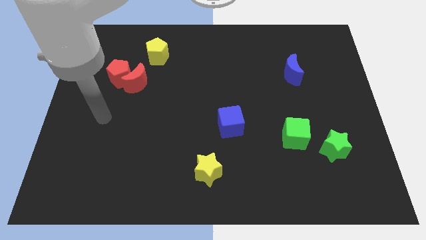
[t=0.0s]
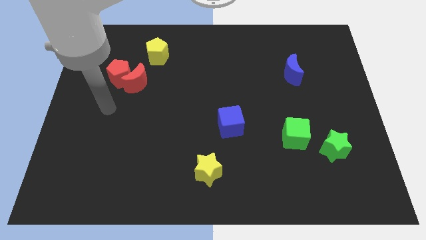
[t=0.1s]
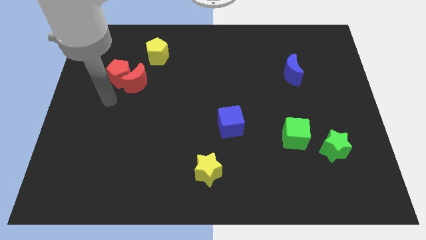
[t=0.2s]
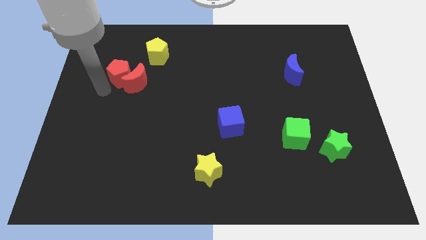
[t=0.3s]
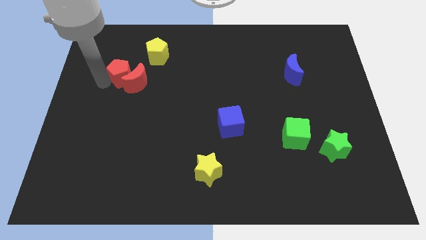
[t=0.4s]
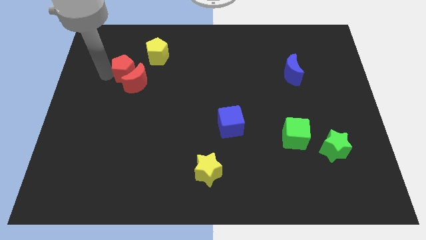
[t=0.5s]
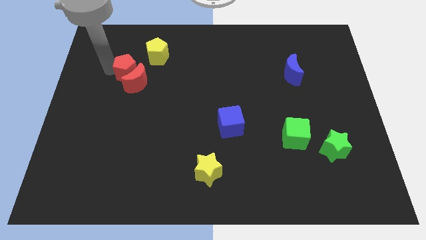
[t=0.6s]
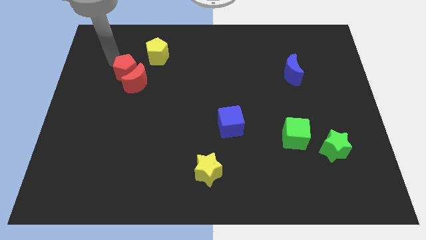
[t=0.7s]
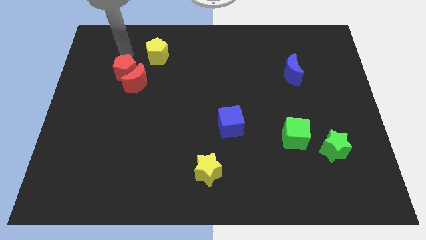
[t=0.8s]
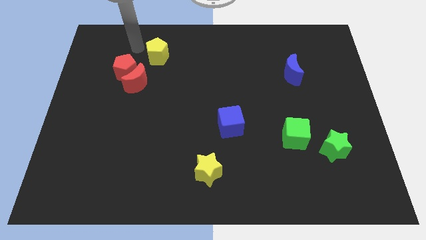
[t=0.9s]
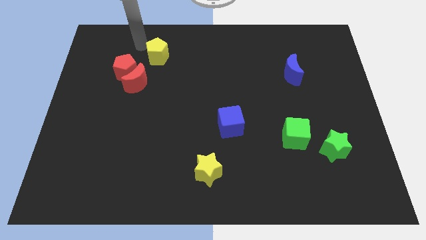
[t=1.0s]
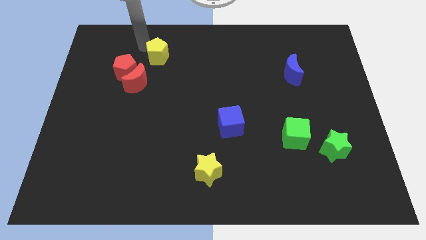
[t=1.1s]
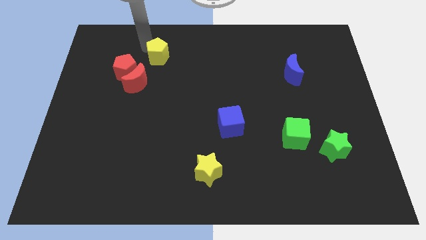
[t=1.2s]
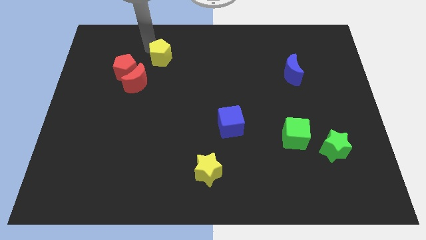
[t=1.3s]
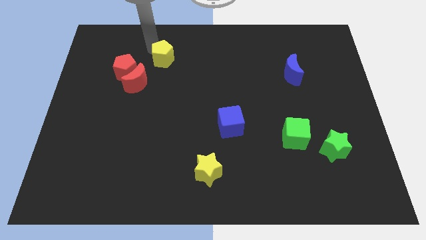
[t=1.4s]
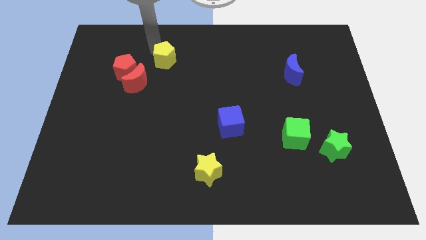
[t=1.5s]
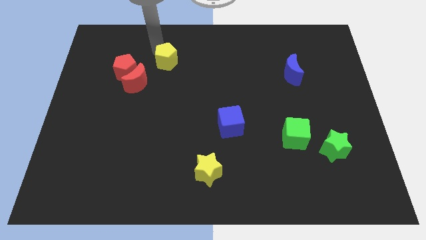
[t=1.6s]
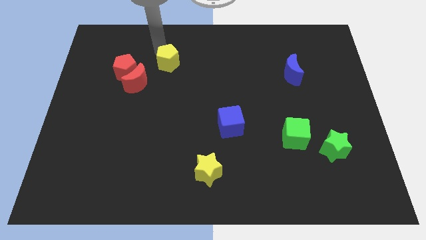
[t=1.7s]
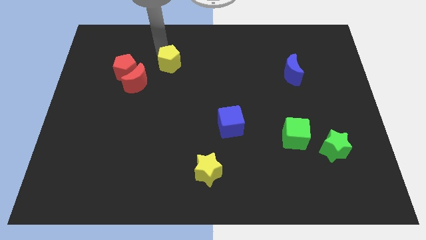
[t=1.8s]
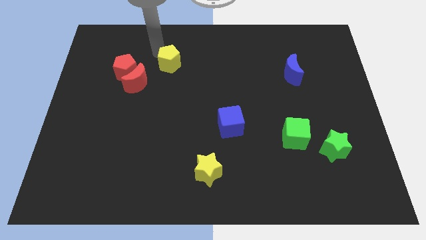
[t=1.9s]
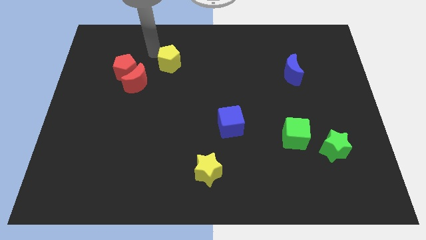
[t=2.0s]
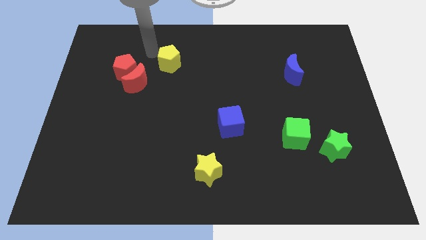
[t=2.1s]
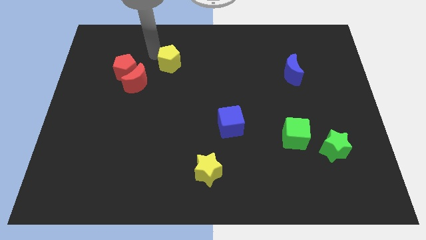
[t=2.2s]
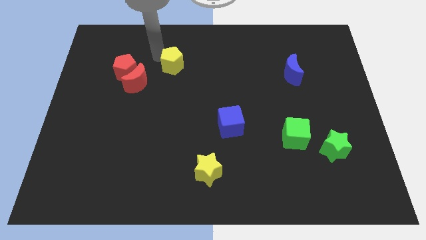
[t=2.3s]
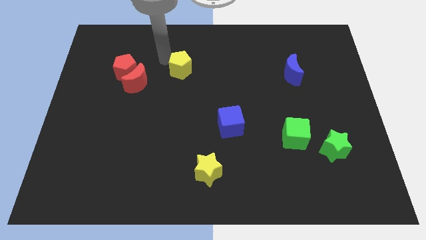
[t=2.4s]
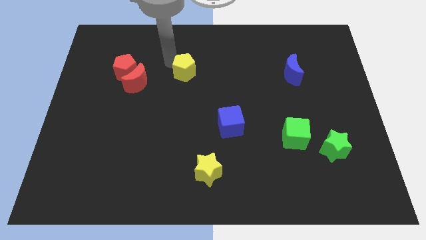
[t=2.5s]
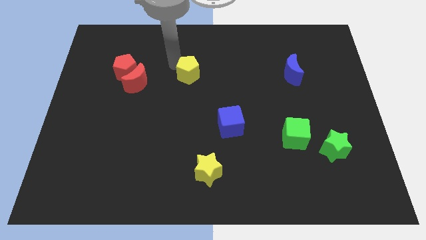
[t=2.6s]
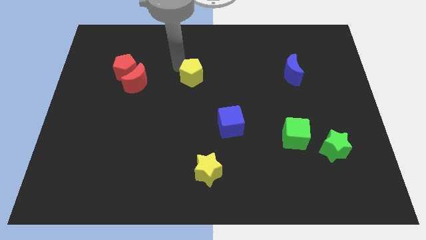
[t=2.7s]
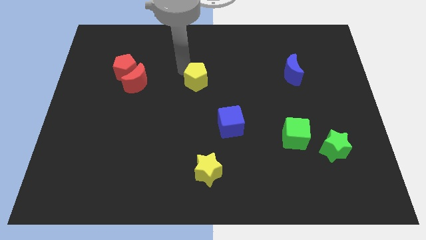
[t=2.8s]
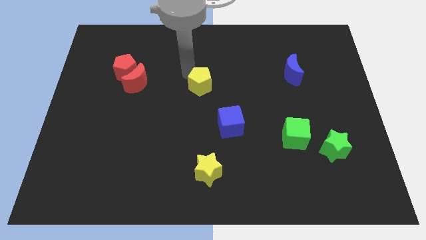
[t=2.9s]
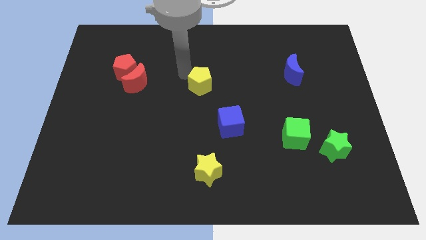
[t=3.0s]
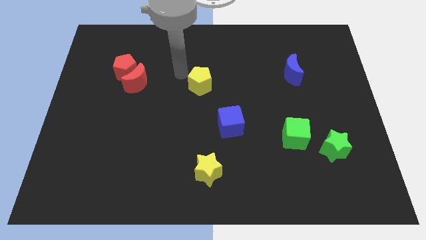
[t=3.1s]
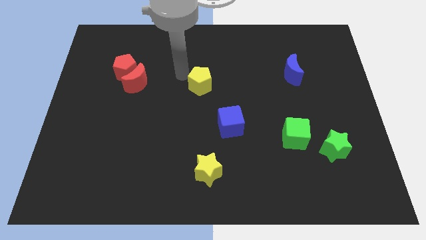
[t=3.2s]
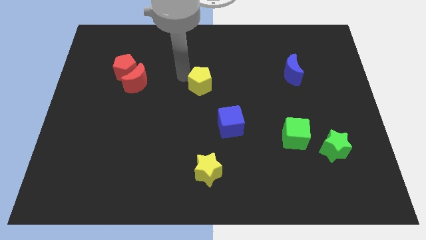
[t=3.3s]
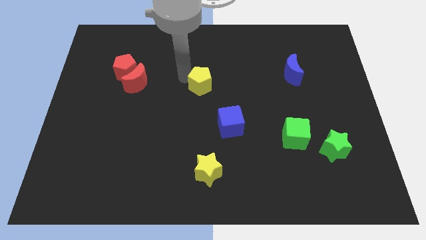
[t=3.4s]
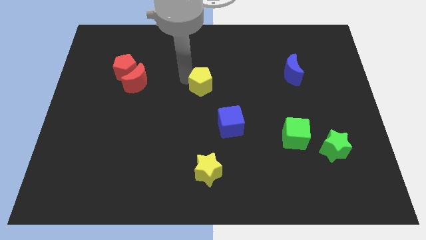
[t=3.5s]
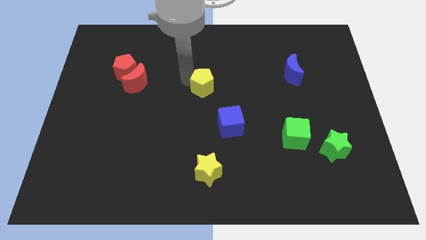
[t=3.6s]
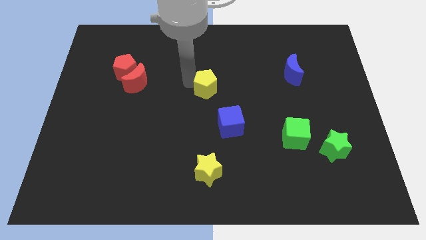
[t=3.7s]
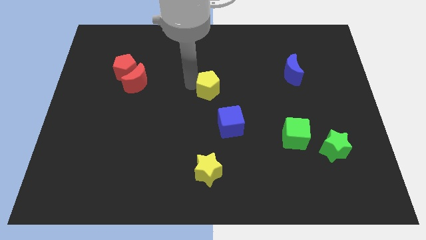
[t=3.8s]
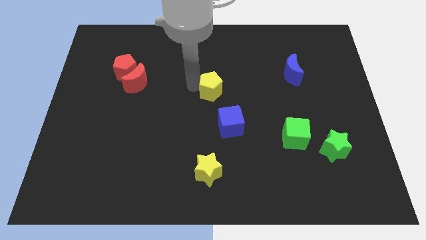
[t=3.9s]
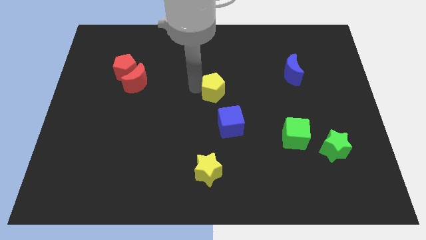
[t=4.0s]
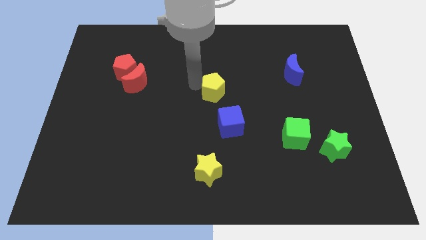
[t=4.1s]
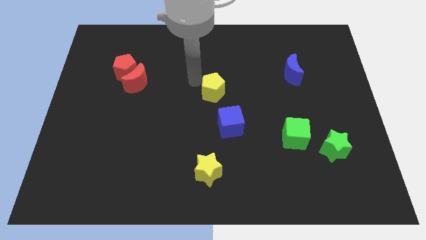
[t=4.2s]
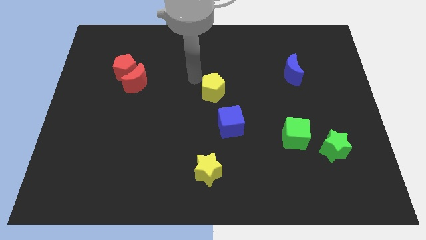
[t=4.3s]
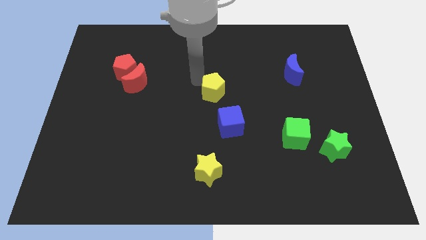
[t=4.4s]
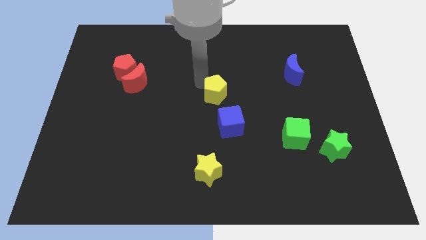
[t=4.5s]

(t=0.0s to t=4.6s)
push the yellow pentagon diagonally downwards and right

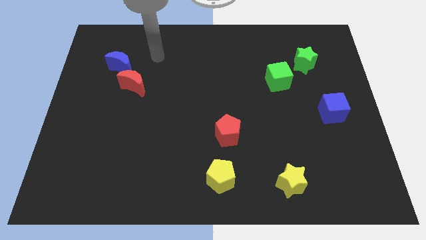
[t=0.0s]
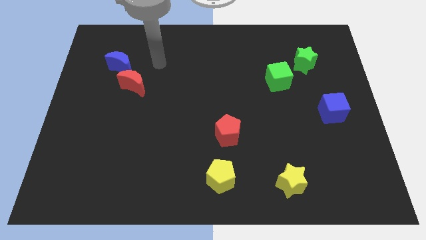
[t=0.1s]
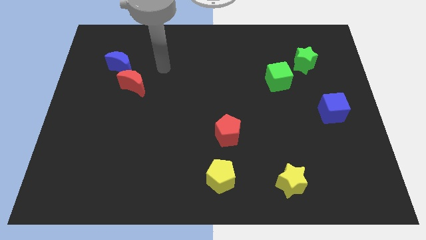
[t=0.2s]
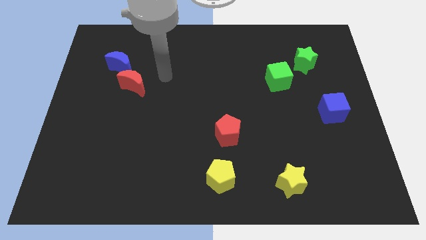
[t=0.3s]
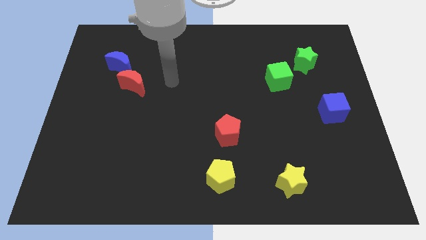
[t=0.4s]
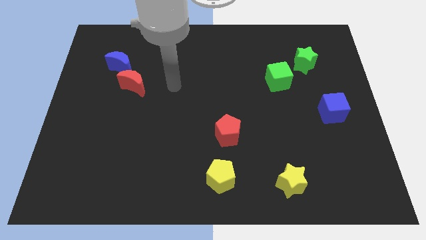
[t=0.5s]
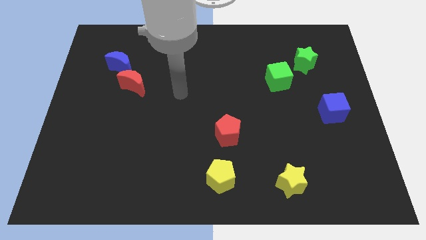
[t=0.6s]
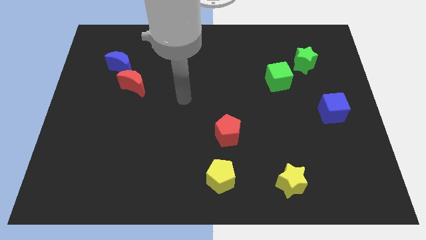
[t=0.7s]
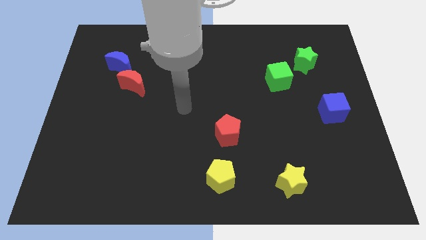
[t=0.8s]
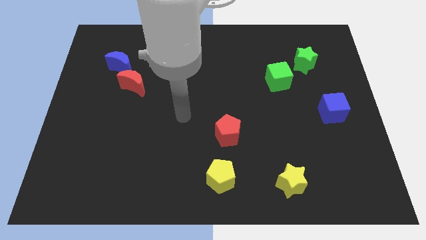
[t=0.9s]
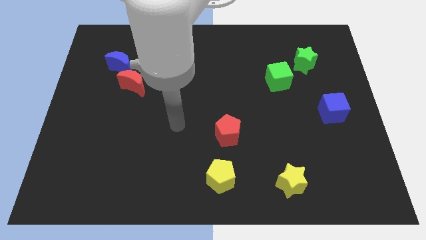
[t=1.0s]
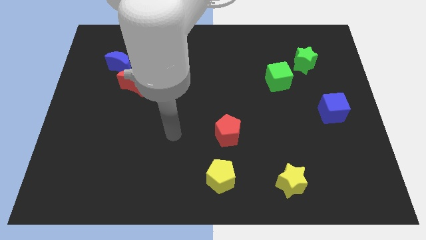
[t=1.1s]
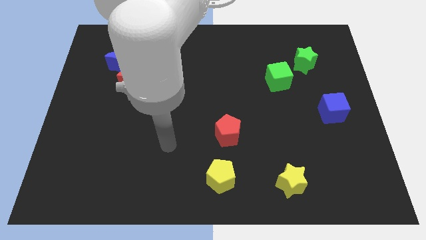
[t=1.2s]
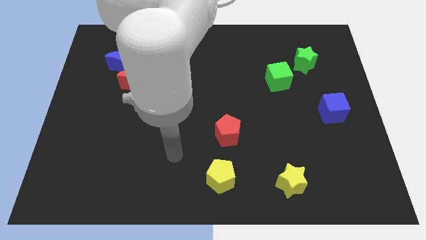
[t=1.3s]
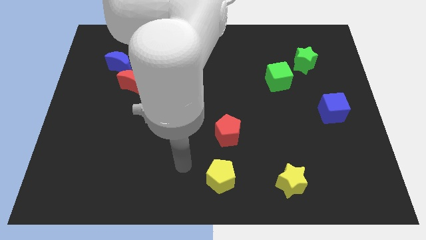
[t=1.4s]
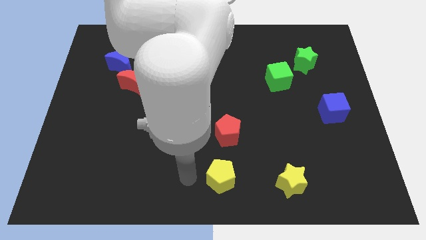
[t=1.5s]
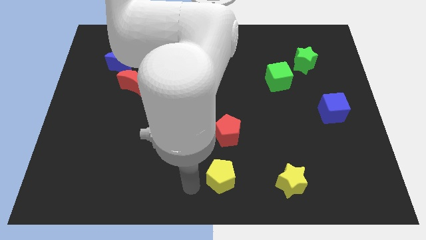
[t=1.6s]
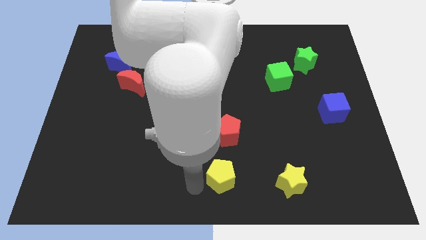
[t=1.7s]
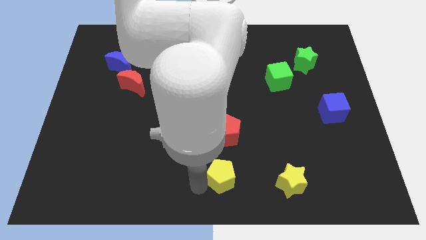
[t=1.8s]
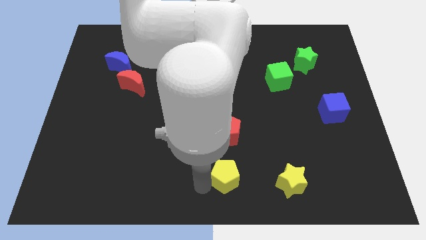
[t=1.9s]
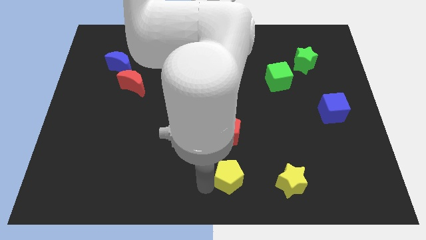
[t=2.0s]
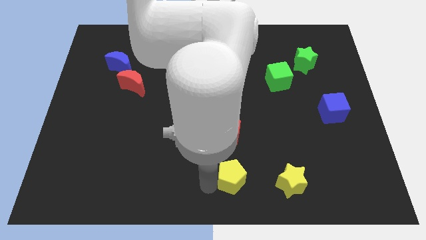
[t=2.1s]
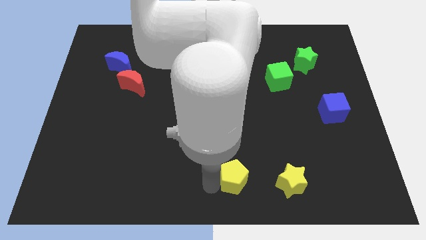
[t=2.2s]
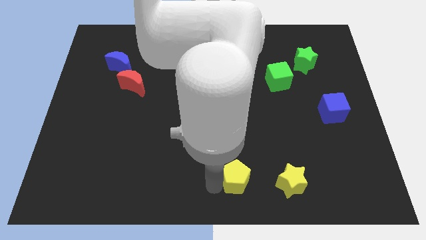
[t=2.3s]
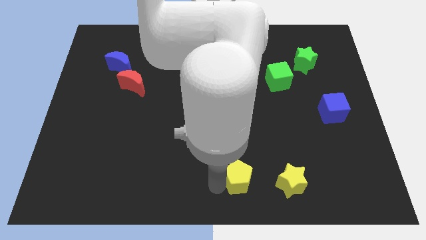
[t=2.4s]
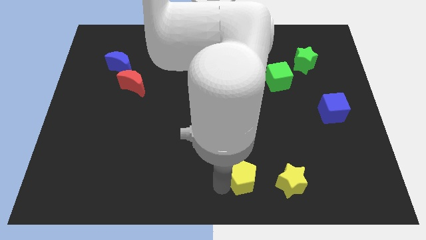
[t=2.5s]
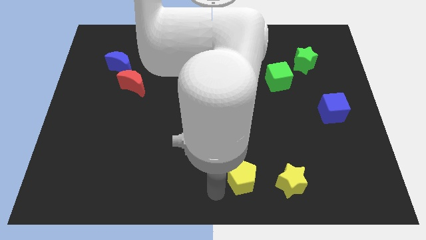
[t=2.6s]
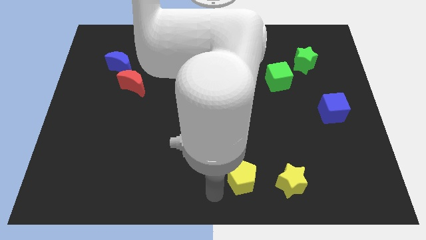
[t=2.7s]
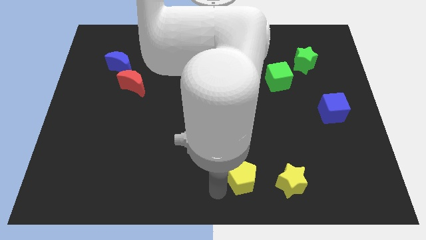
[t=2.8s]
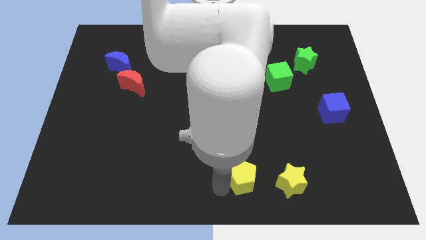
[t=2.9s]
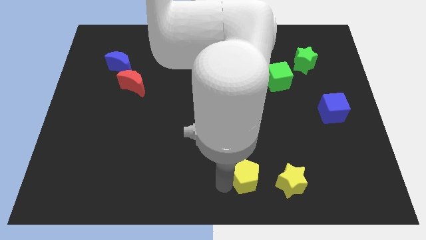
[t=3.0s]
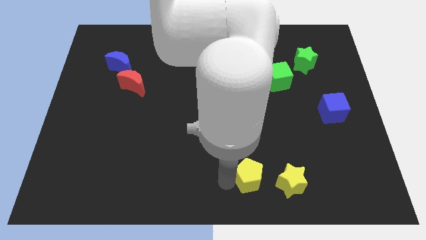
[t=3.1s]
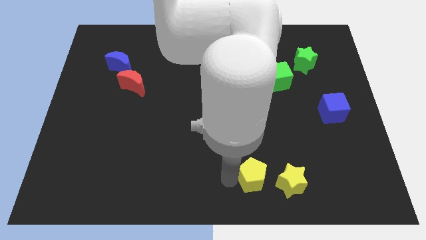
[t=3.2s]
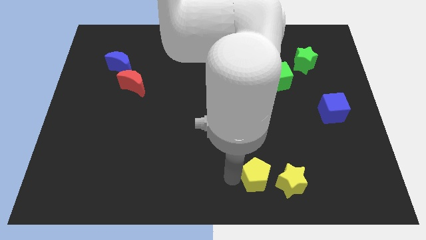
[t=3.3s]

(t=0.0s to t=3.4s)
slide the yellow pentagon right somewhat
